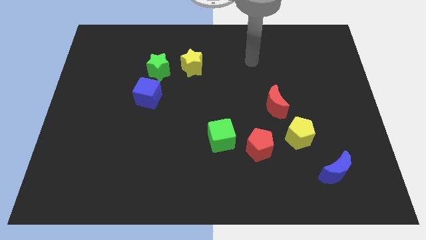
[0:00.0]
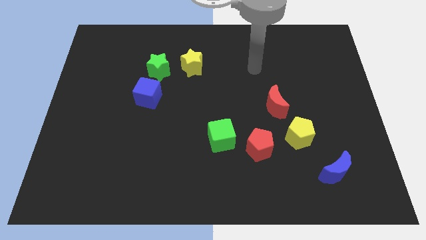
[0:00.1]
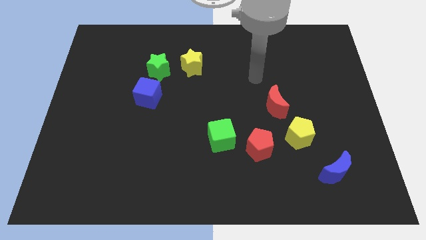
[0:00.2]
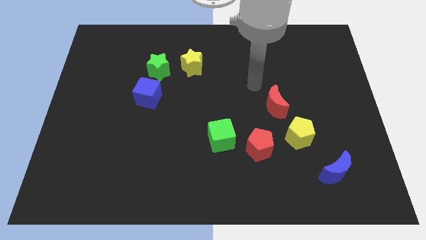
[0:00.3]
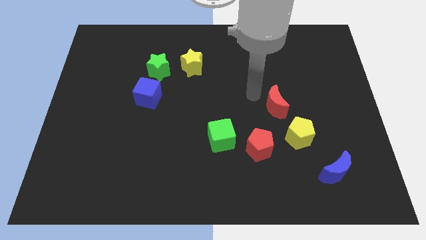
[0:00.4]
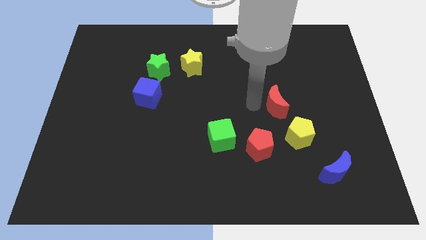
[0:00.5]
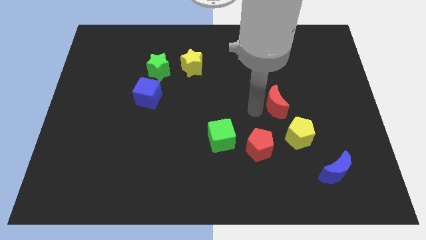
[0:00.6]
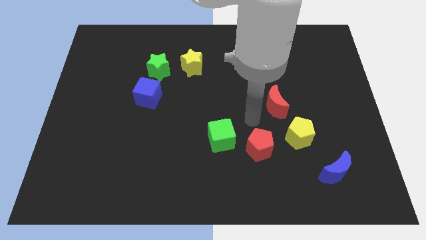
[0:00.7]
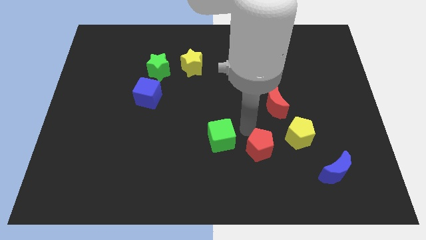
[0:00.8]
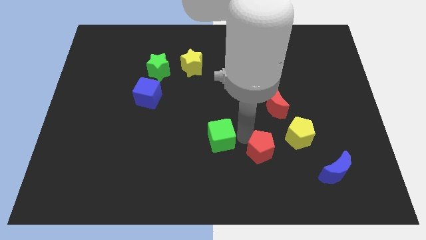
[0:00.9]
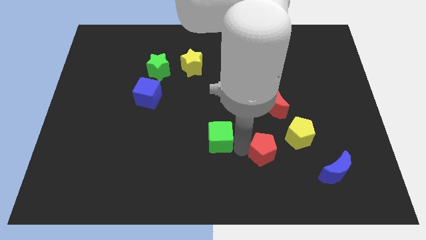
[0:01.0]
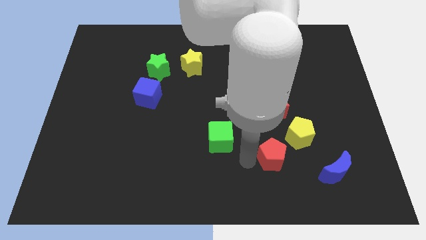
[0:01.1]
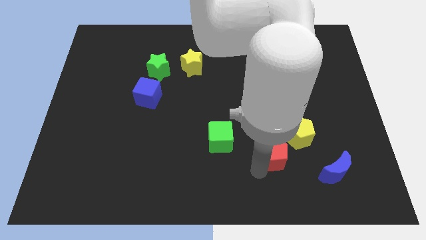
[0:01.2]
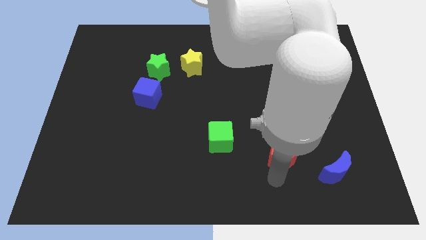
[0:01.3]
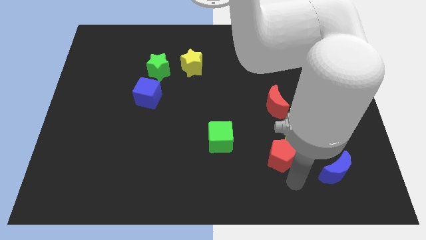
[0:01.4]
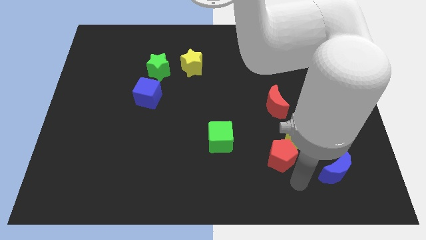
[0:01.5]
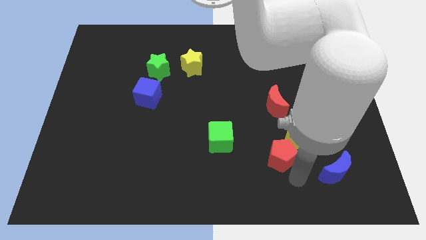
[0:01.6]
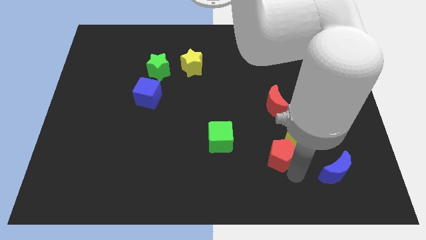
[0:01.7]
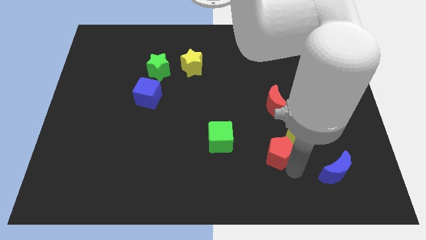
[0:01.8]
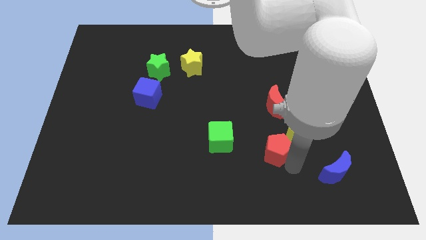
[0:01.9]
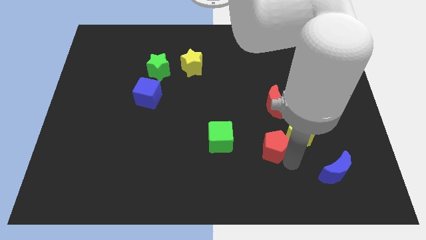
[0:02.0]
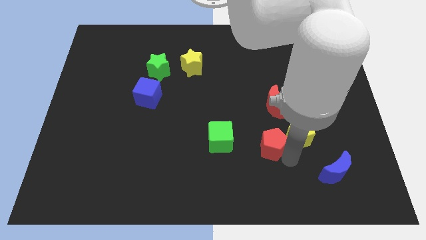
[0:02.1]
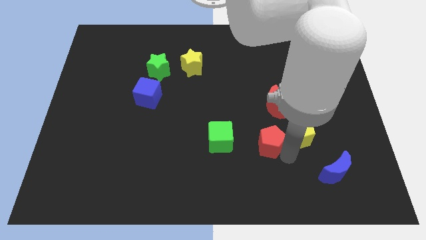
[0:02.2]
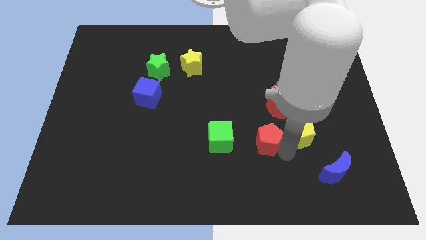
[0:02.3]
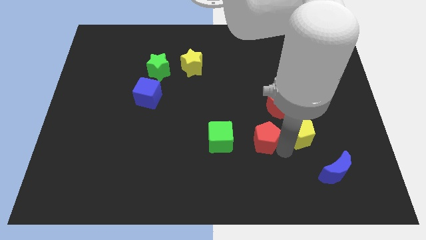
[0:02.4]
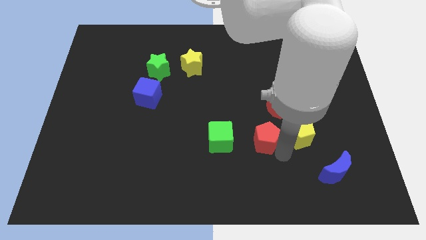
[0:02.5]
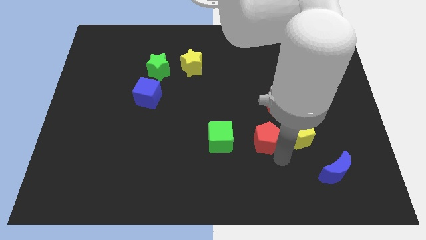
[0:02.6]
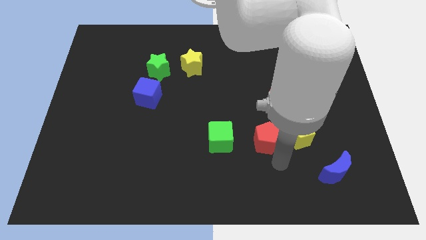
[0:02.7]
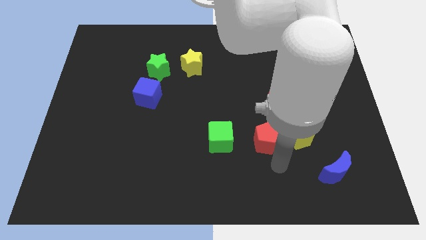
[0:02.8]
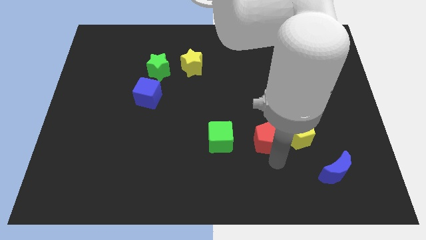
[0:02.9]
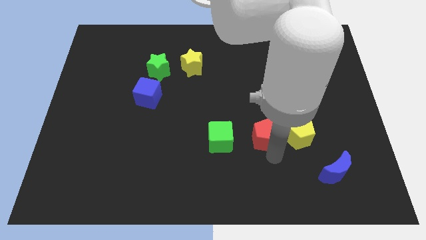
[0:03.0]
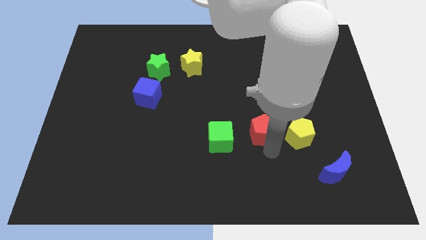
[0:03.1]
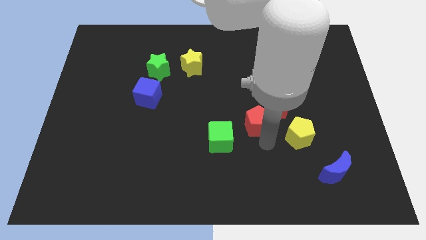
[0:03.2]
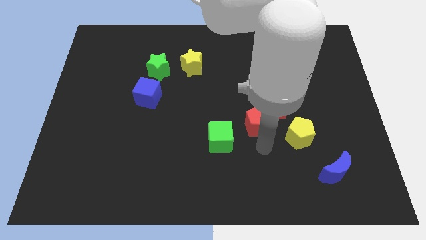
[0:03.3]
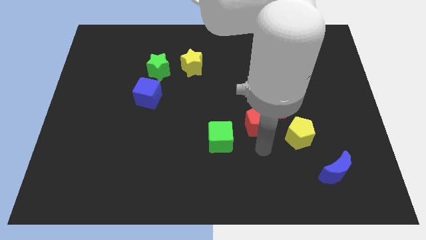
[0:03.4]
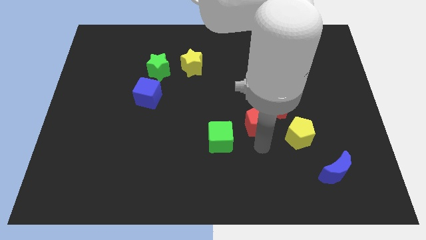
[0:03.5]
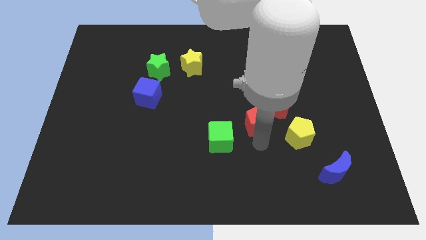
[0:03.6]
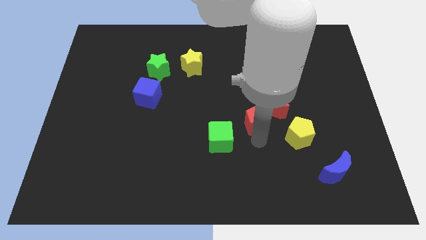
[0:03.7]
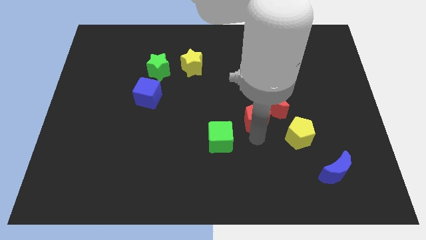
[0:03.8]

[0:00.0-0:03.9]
slide the red pentagon somewhat up

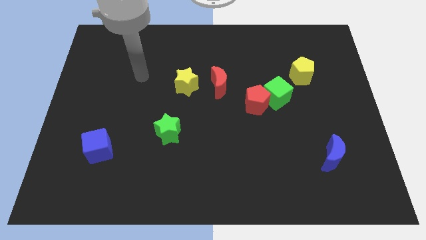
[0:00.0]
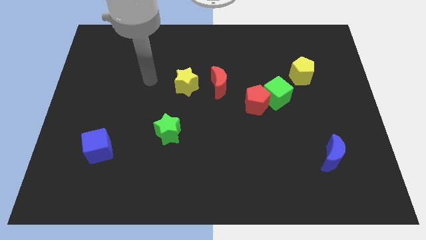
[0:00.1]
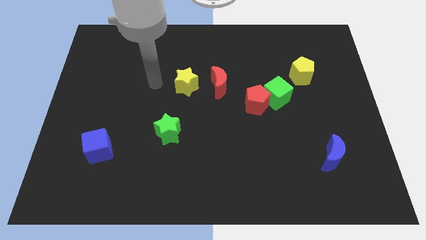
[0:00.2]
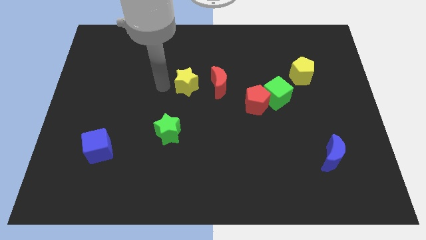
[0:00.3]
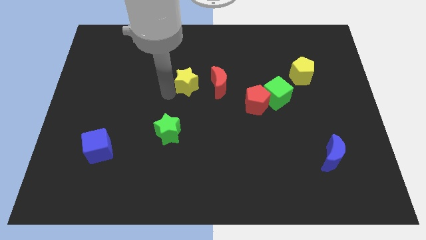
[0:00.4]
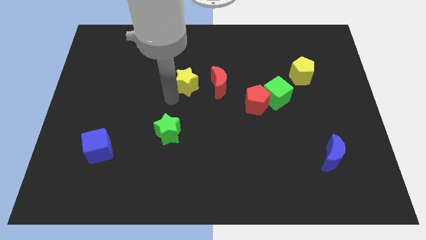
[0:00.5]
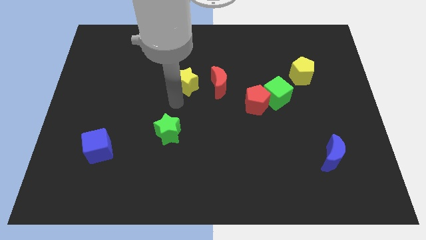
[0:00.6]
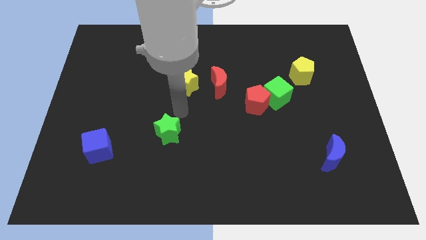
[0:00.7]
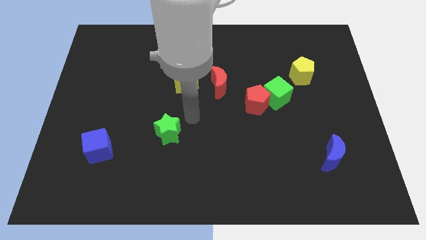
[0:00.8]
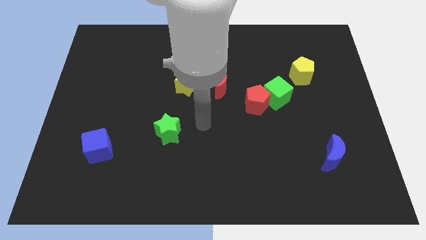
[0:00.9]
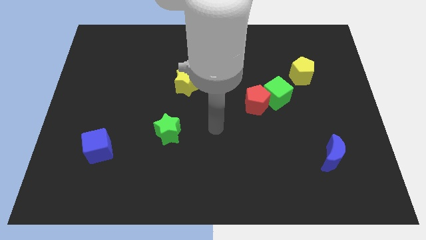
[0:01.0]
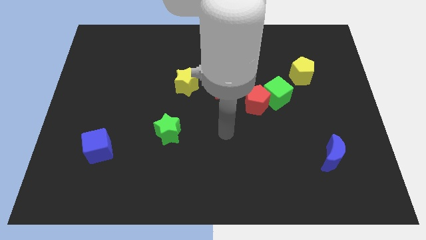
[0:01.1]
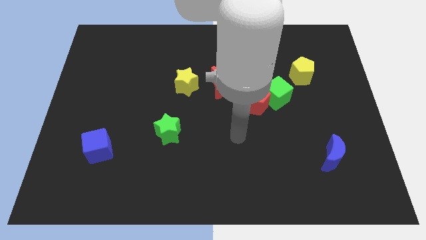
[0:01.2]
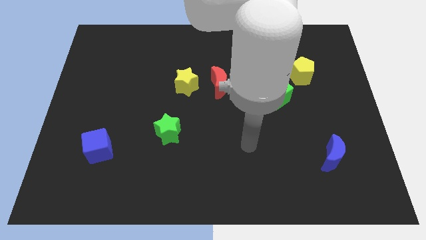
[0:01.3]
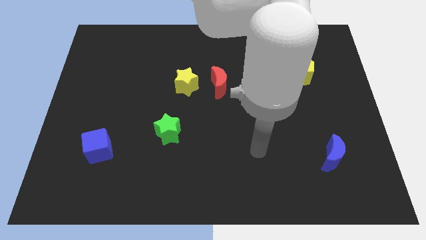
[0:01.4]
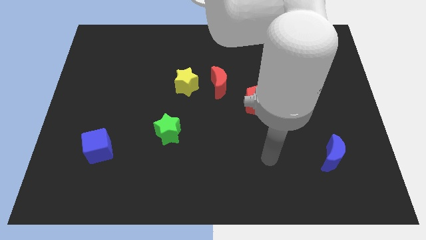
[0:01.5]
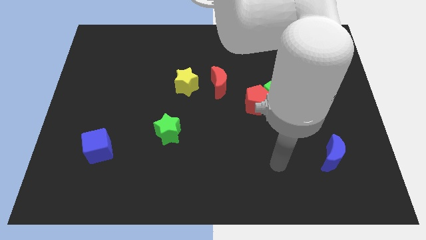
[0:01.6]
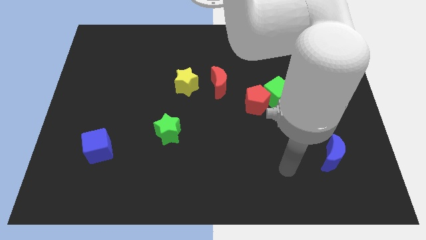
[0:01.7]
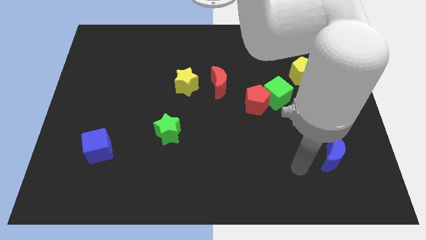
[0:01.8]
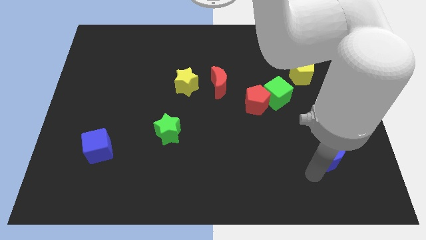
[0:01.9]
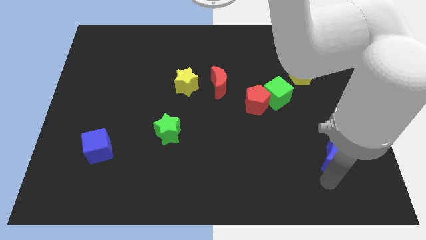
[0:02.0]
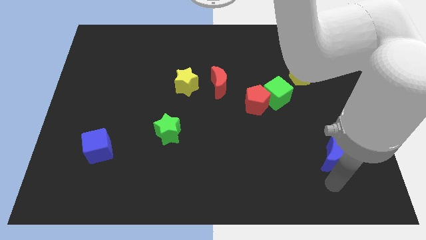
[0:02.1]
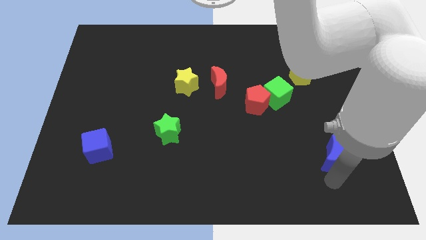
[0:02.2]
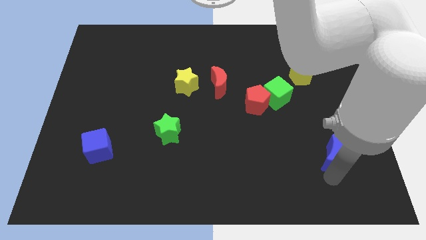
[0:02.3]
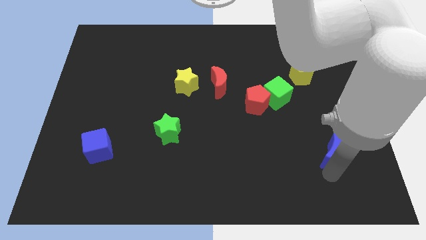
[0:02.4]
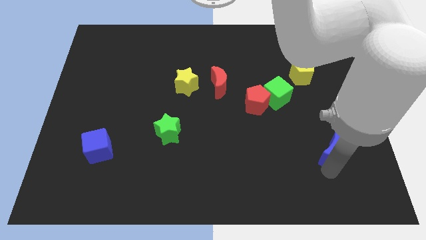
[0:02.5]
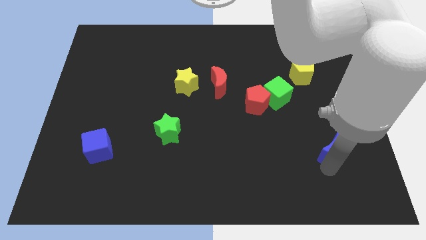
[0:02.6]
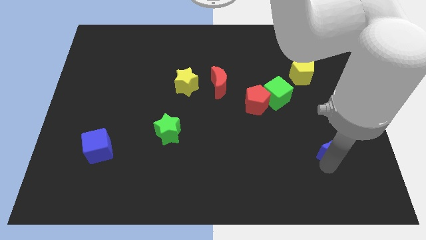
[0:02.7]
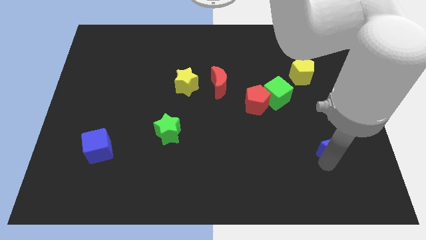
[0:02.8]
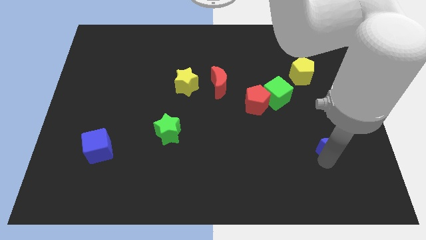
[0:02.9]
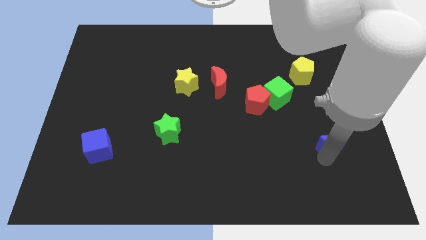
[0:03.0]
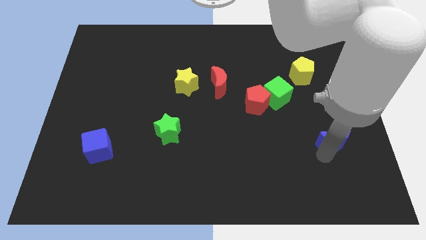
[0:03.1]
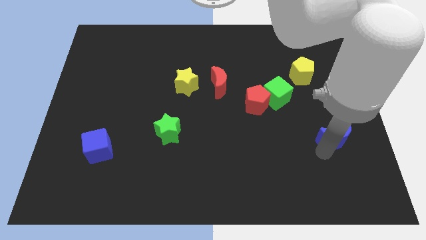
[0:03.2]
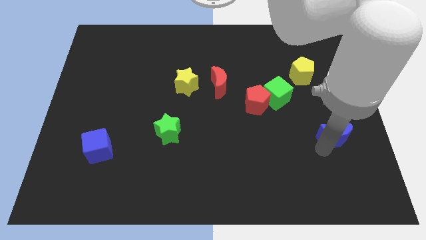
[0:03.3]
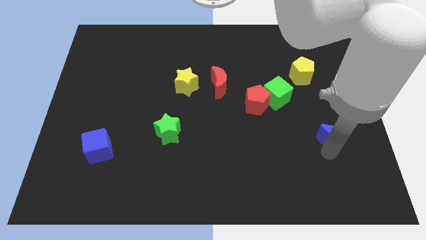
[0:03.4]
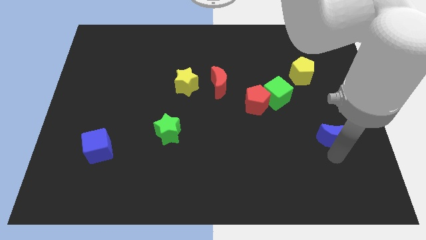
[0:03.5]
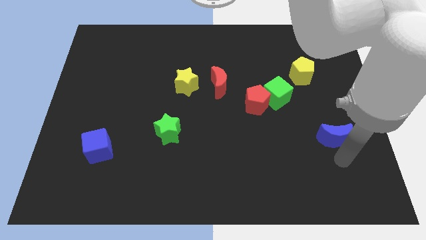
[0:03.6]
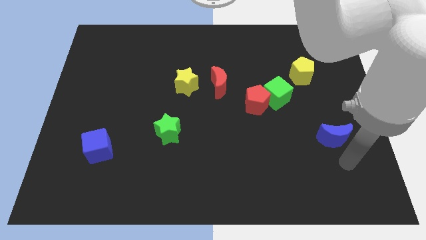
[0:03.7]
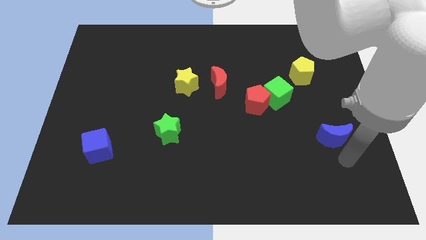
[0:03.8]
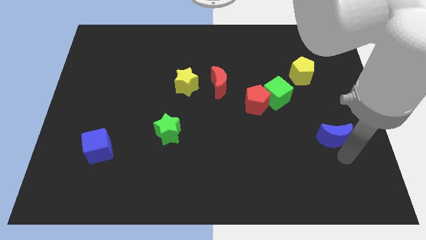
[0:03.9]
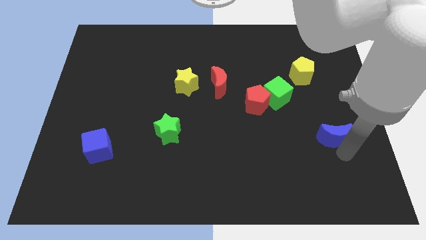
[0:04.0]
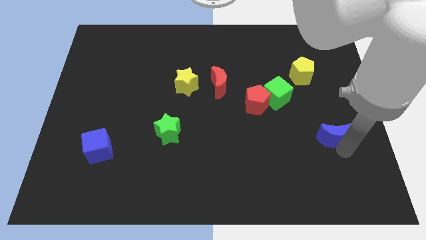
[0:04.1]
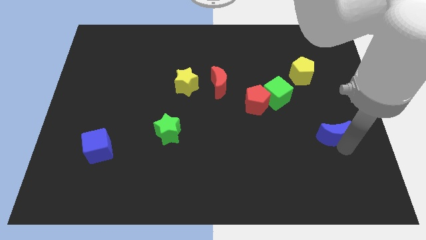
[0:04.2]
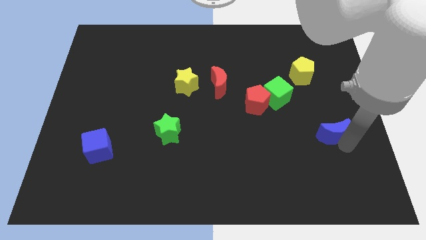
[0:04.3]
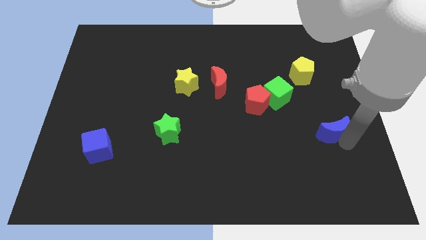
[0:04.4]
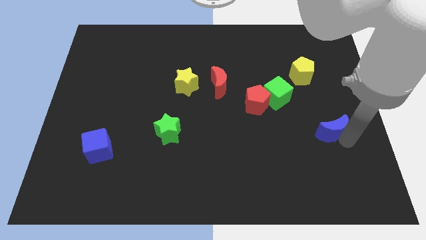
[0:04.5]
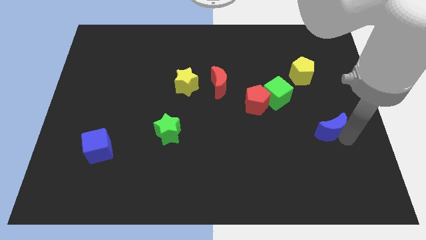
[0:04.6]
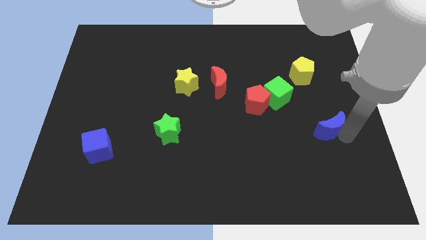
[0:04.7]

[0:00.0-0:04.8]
slightly move the blue moon up
